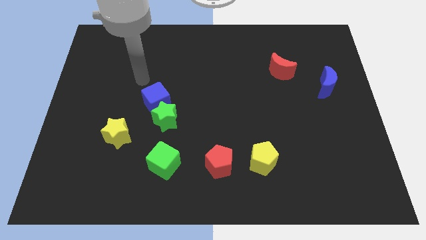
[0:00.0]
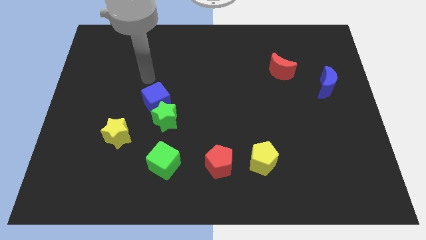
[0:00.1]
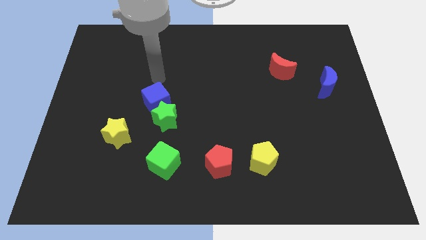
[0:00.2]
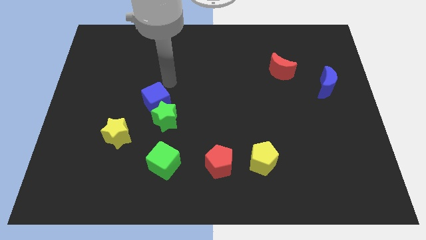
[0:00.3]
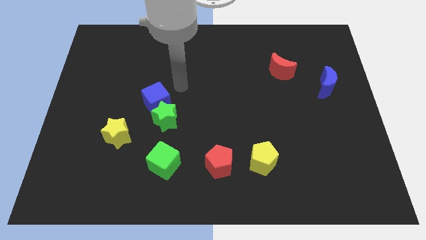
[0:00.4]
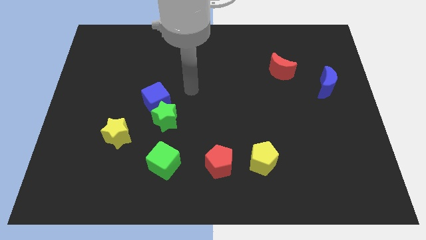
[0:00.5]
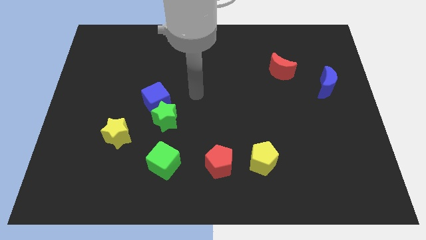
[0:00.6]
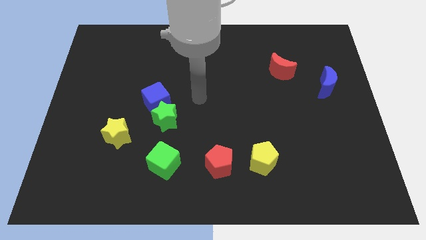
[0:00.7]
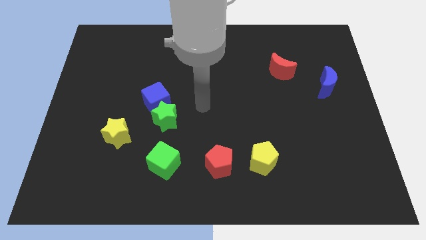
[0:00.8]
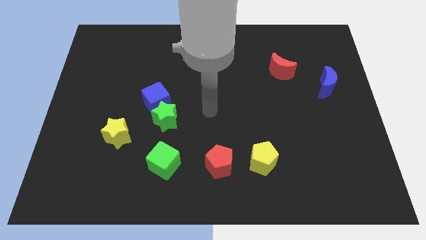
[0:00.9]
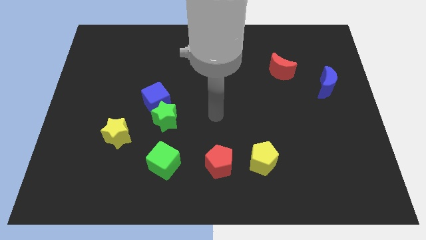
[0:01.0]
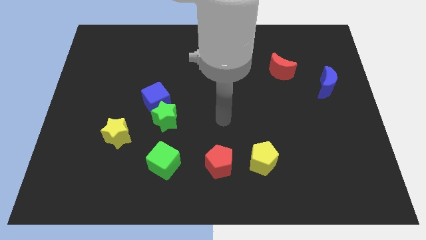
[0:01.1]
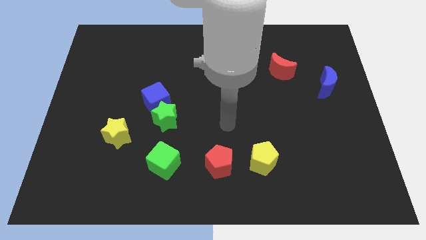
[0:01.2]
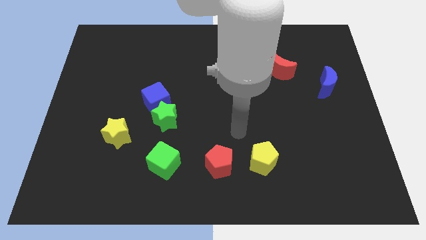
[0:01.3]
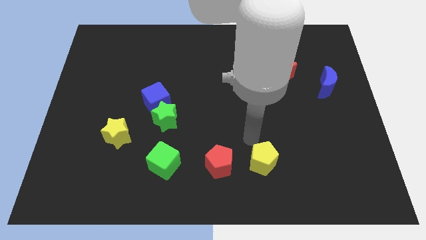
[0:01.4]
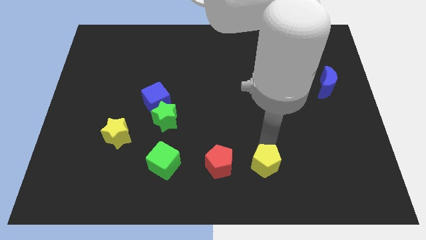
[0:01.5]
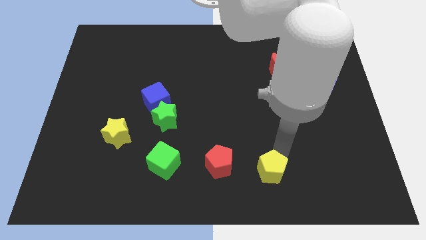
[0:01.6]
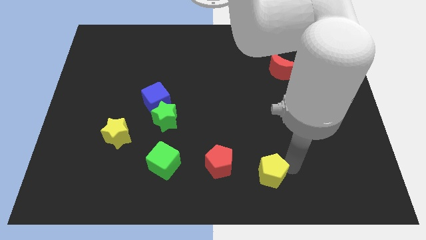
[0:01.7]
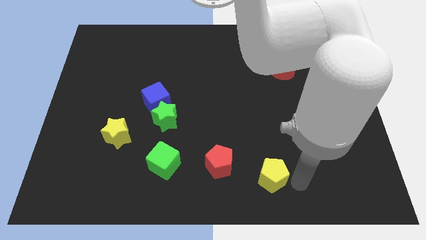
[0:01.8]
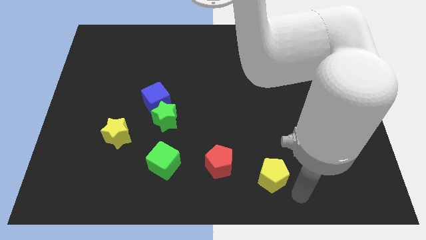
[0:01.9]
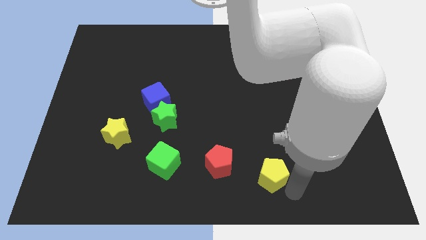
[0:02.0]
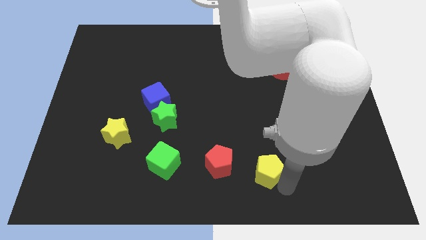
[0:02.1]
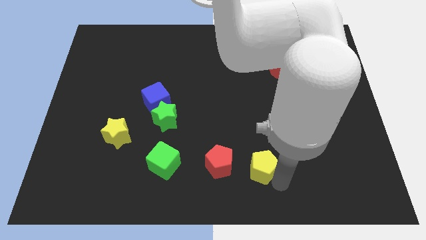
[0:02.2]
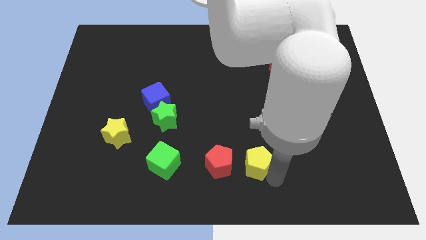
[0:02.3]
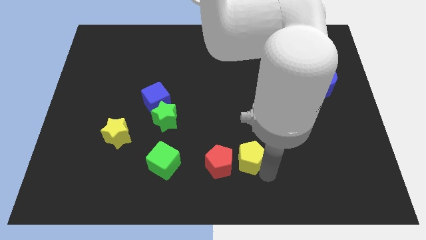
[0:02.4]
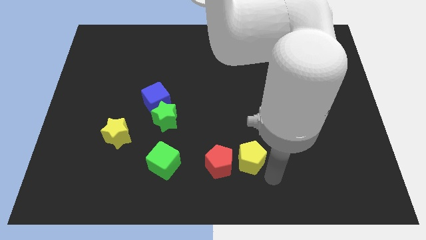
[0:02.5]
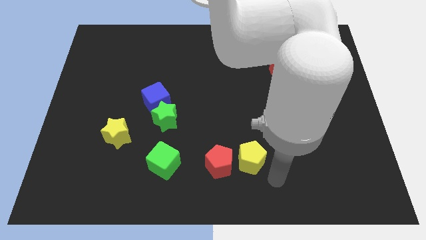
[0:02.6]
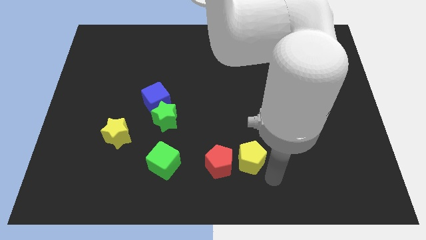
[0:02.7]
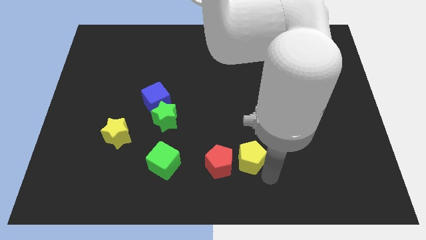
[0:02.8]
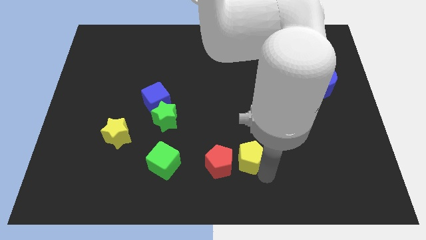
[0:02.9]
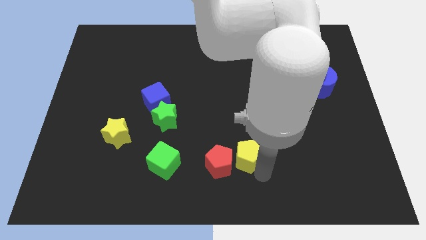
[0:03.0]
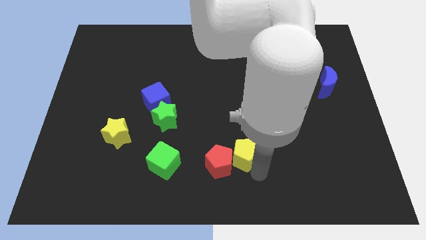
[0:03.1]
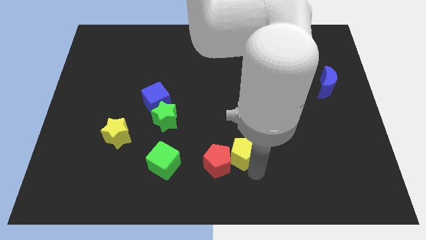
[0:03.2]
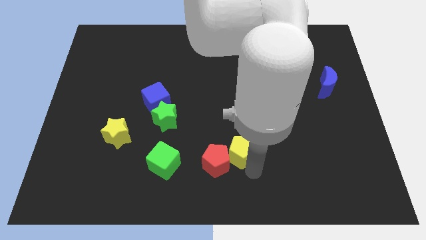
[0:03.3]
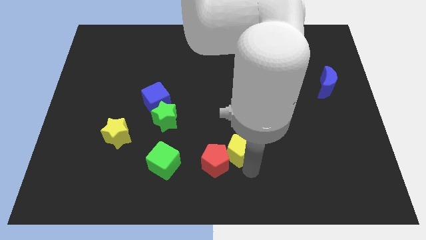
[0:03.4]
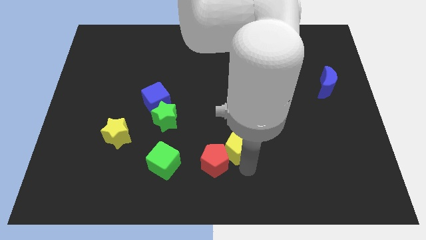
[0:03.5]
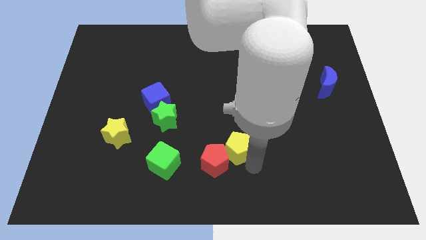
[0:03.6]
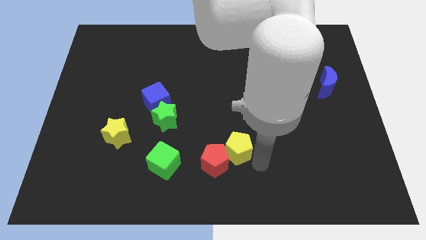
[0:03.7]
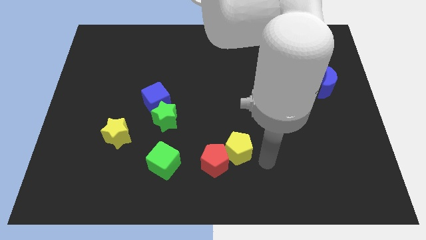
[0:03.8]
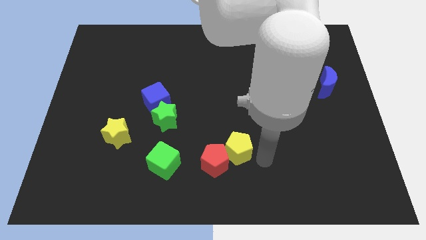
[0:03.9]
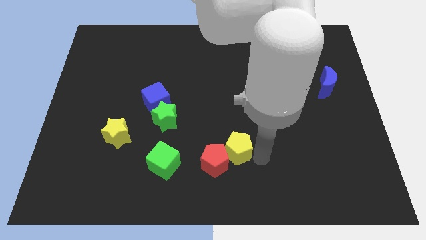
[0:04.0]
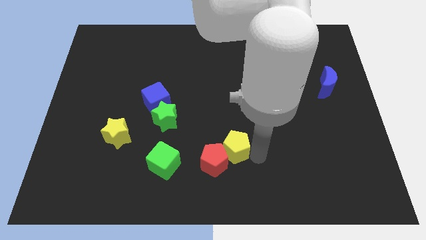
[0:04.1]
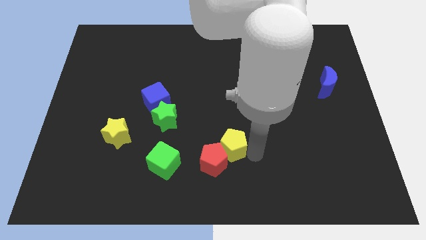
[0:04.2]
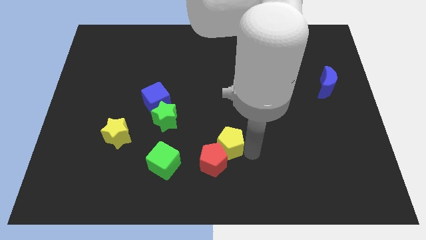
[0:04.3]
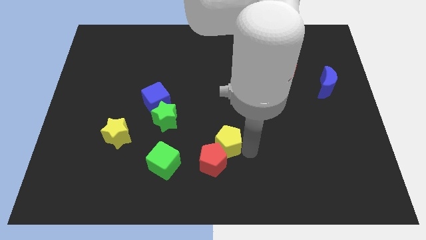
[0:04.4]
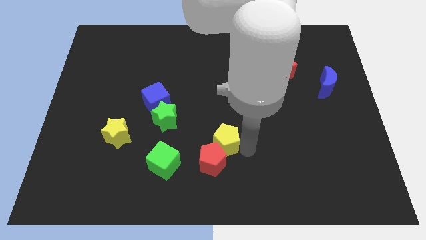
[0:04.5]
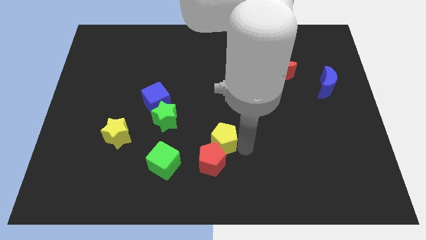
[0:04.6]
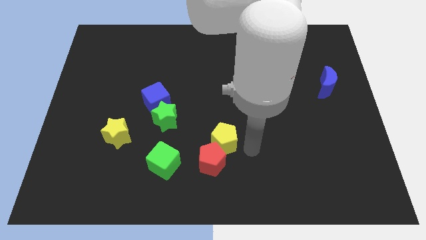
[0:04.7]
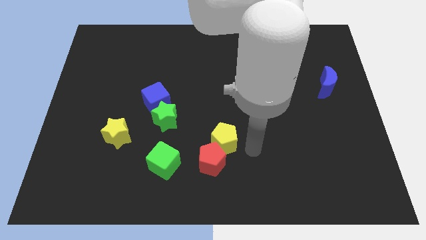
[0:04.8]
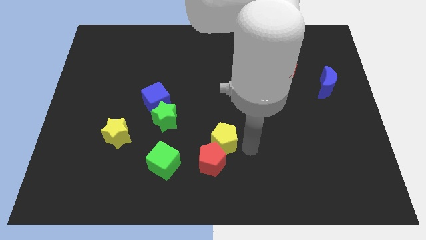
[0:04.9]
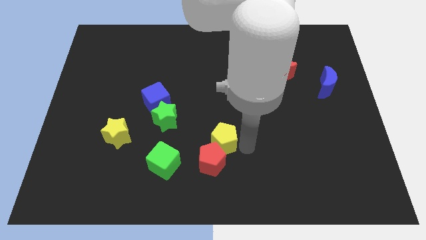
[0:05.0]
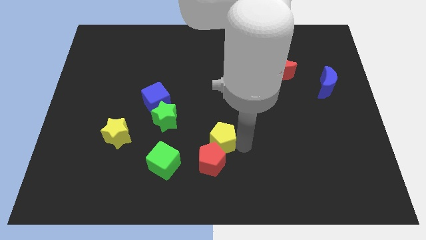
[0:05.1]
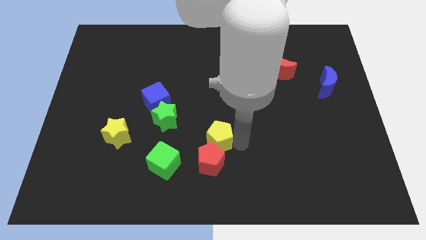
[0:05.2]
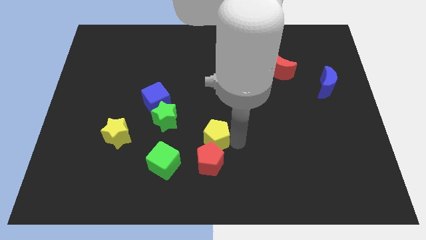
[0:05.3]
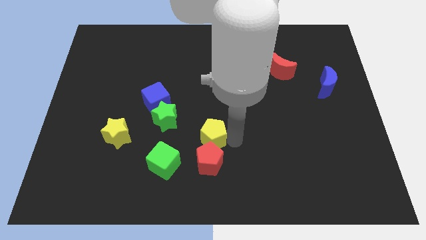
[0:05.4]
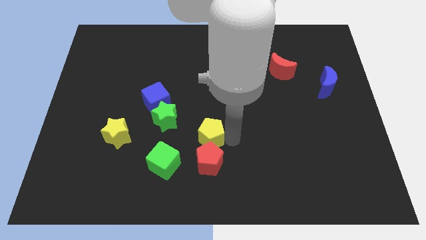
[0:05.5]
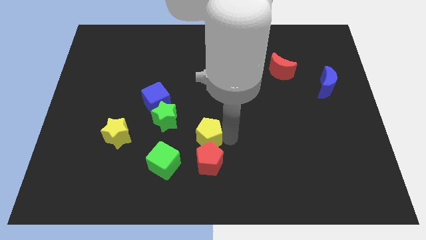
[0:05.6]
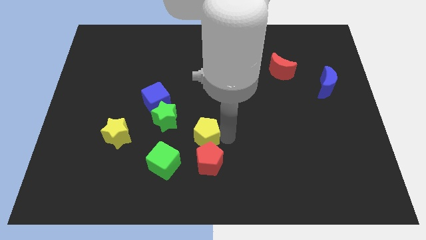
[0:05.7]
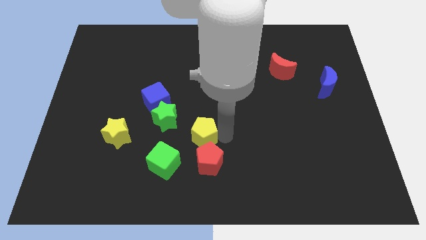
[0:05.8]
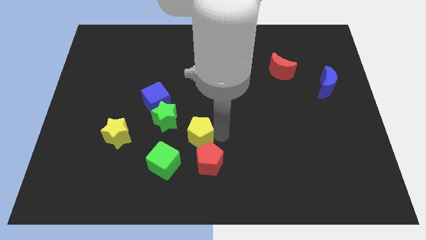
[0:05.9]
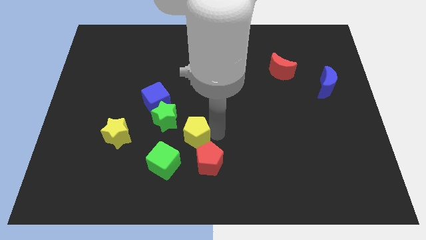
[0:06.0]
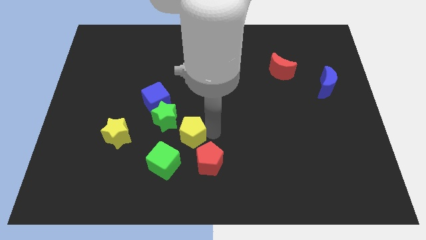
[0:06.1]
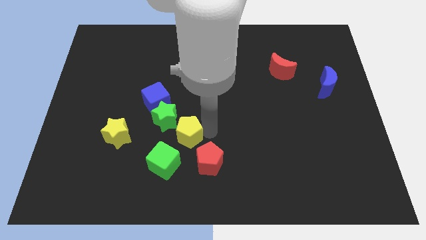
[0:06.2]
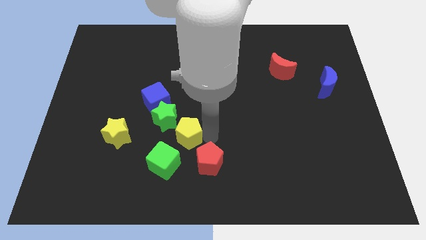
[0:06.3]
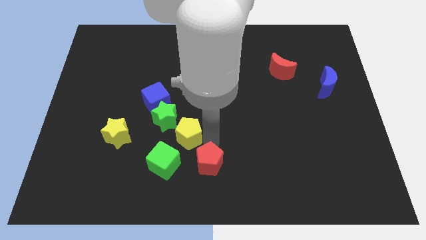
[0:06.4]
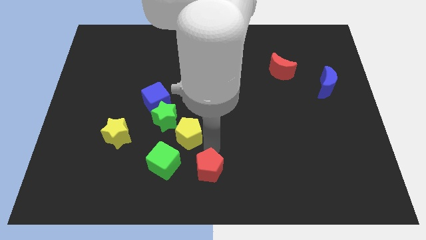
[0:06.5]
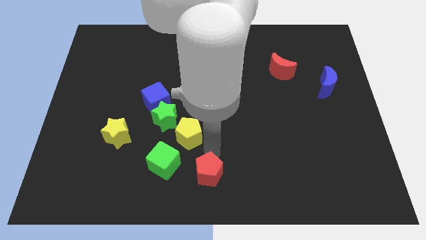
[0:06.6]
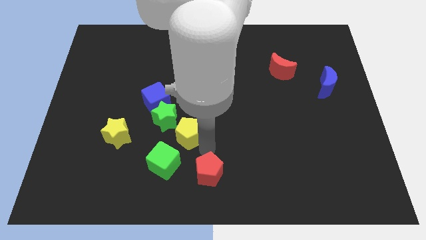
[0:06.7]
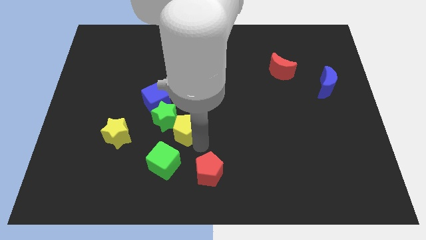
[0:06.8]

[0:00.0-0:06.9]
move the yellow pentagon next to the green star
